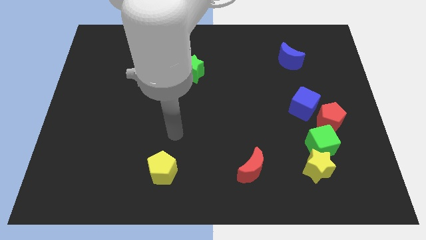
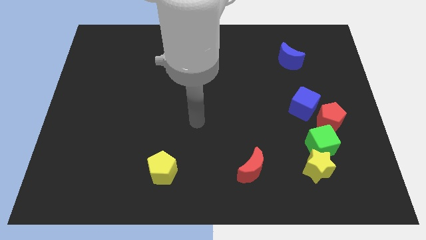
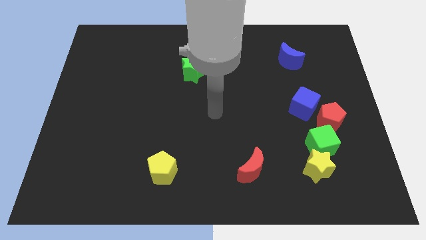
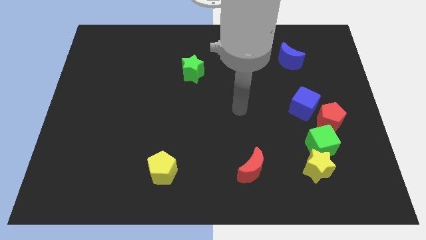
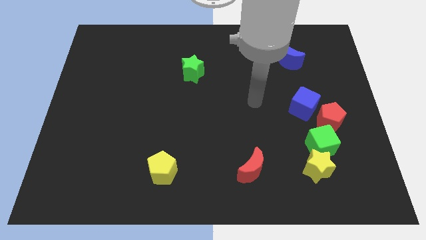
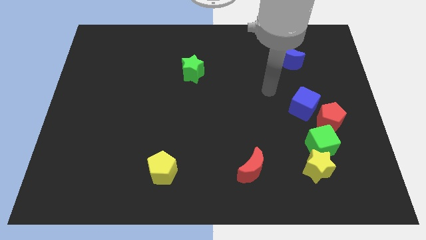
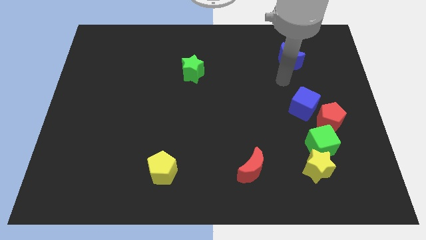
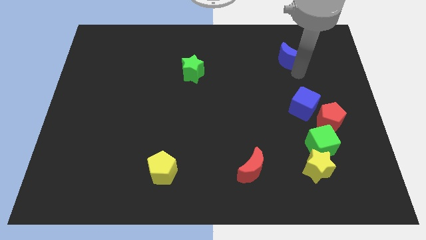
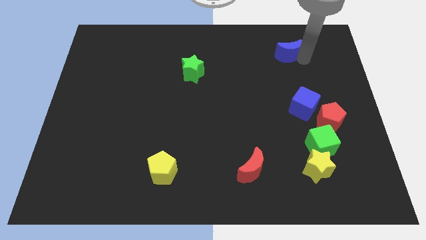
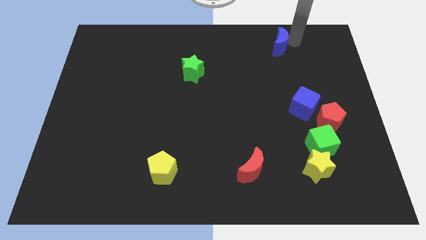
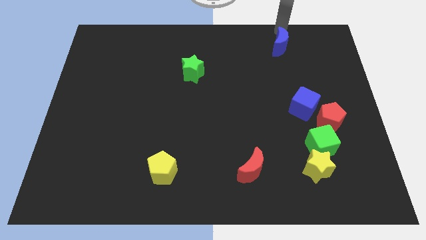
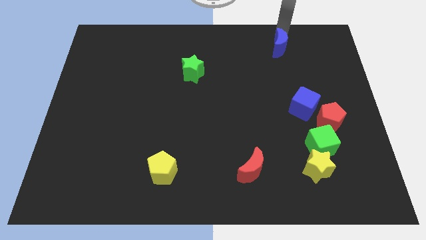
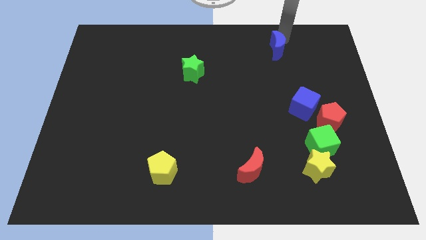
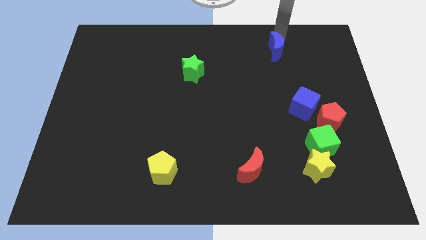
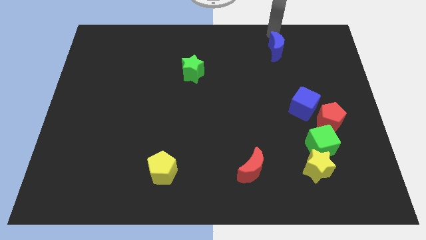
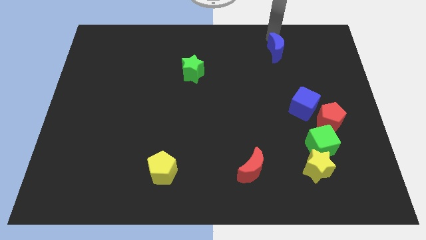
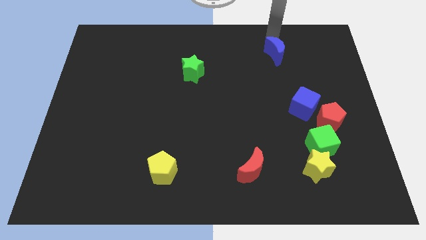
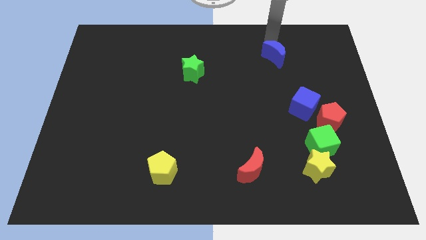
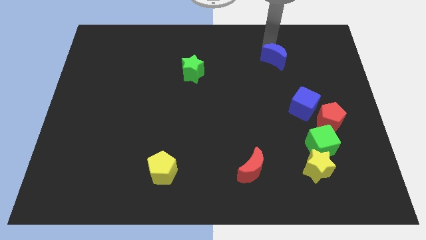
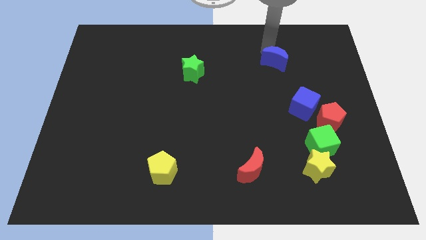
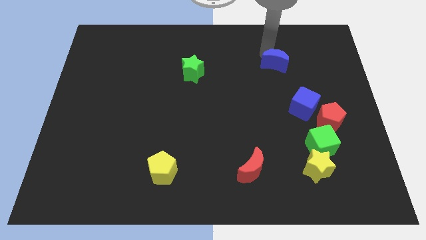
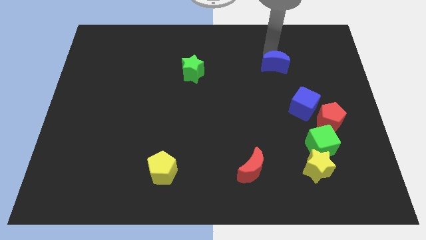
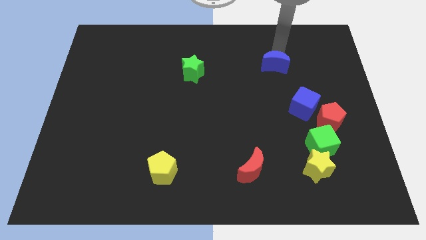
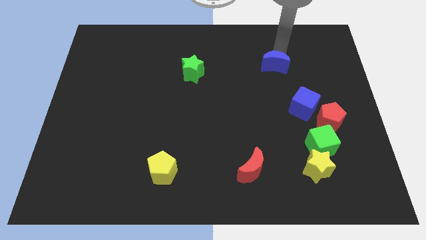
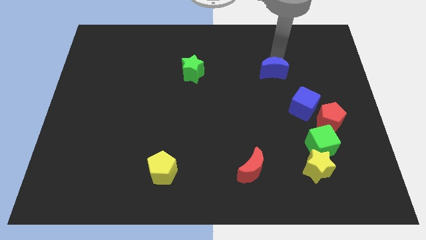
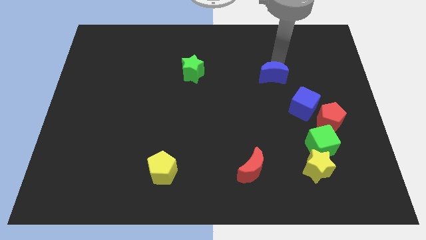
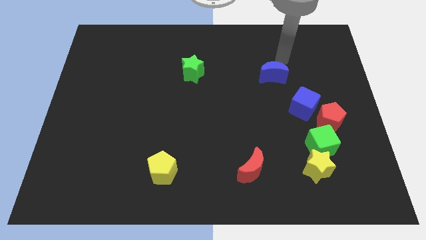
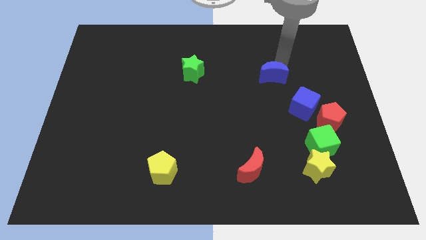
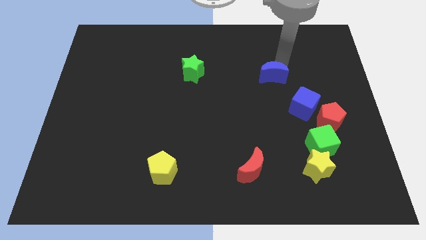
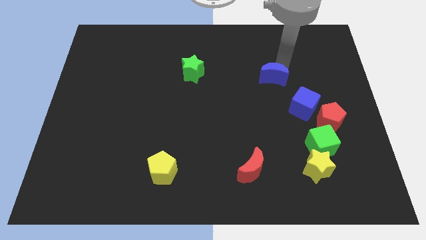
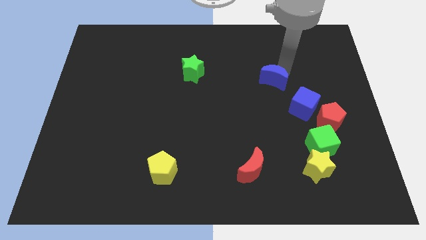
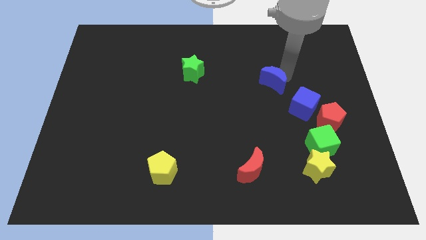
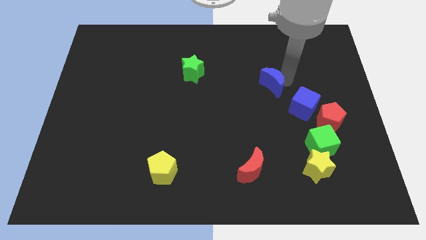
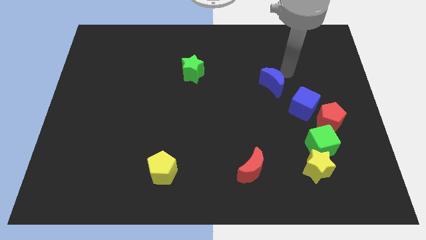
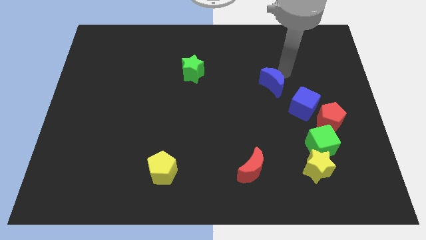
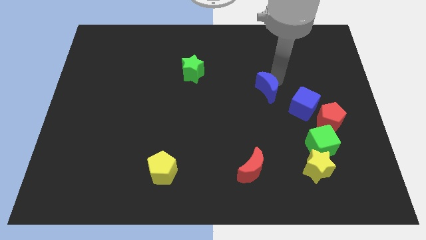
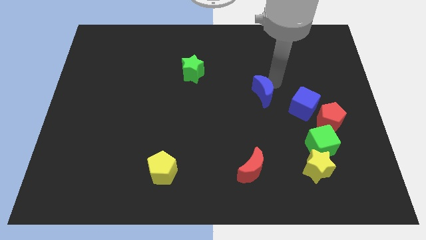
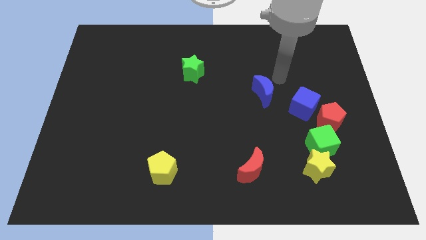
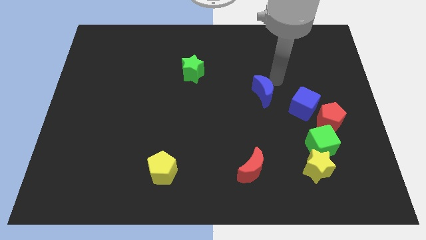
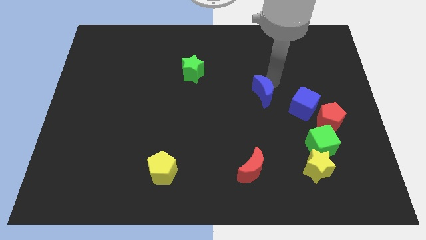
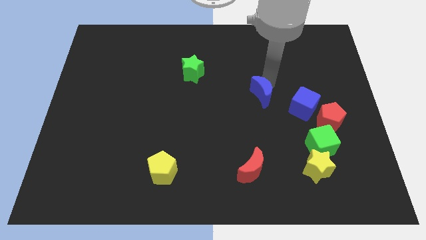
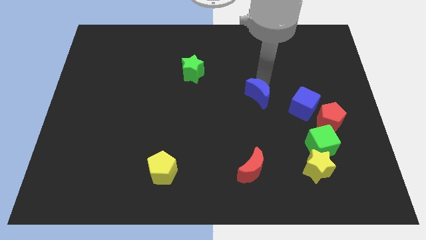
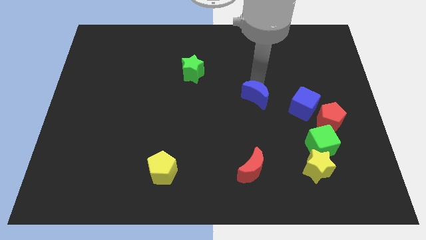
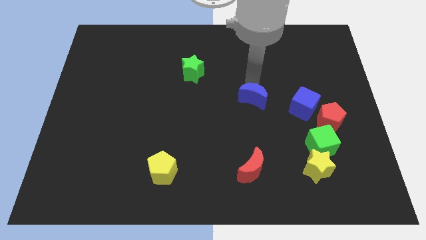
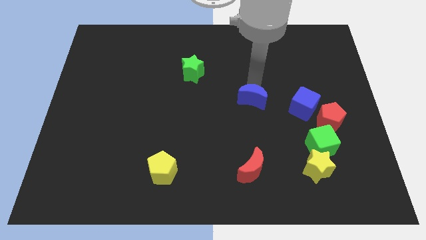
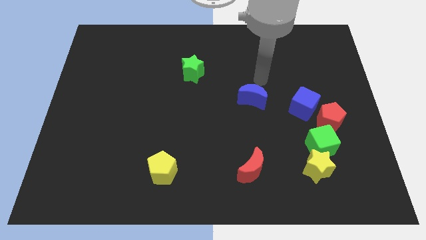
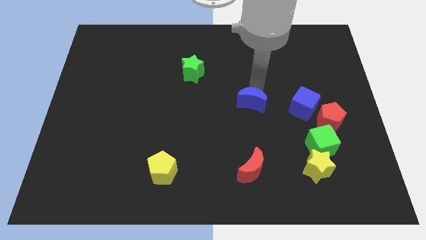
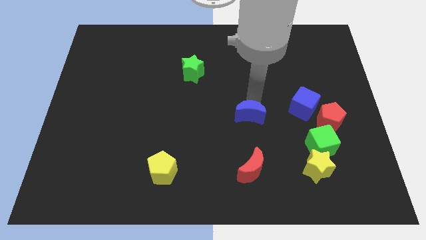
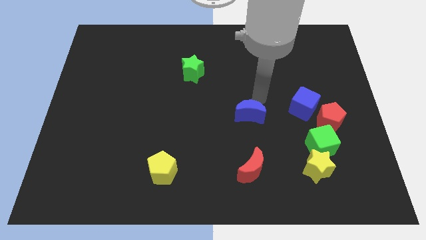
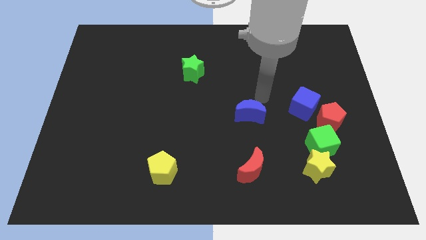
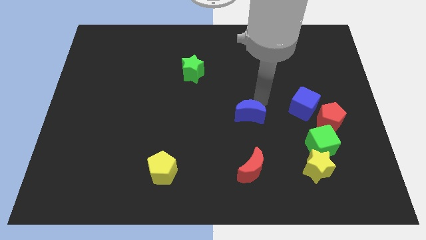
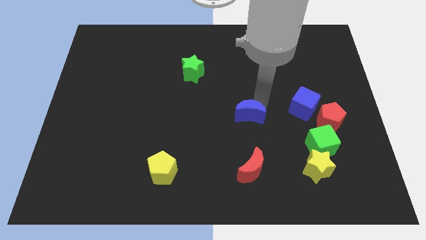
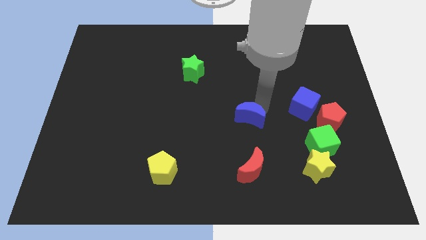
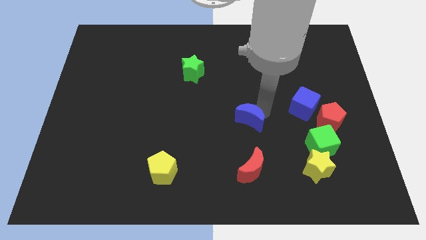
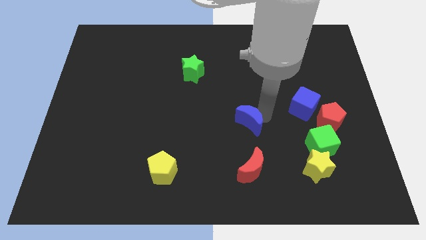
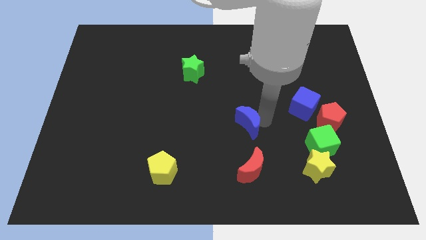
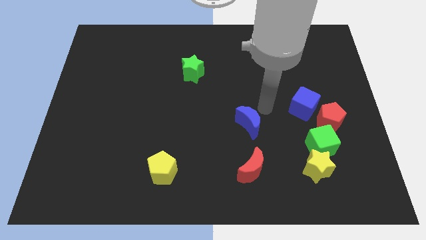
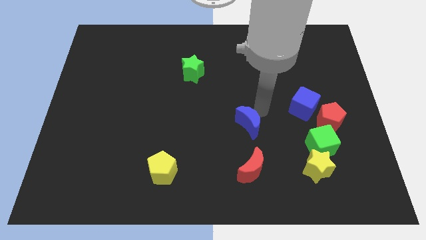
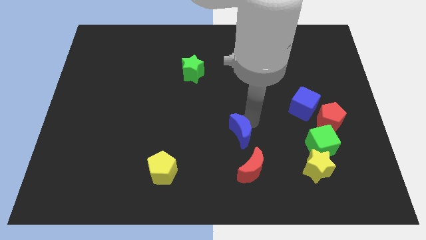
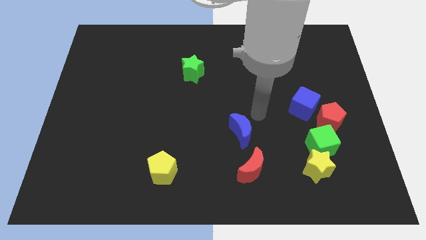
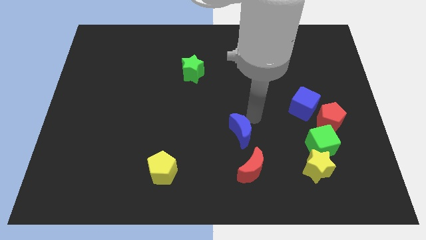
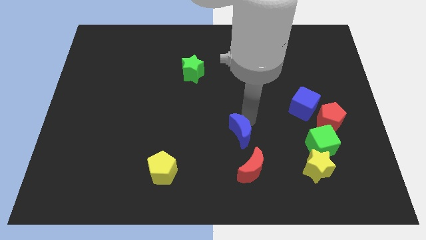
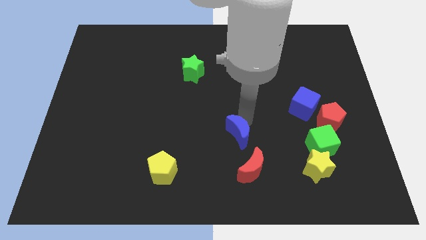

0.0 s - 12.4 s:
push the blue moon to the top left of the red moon

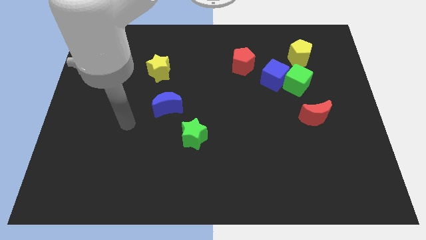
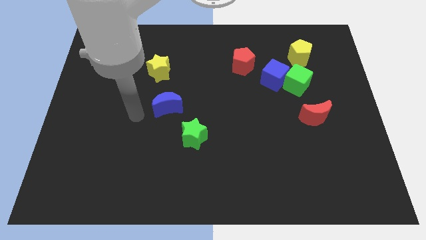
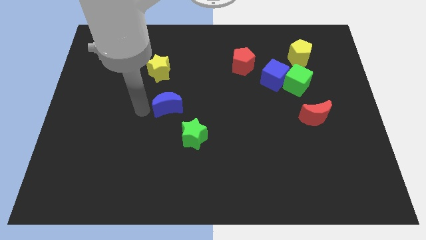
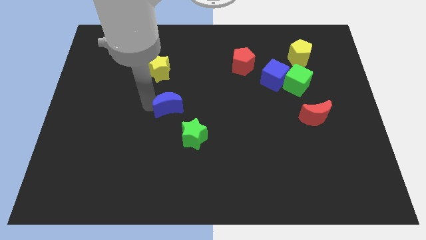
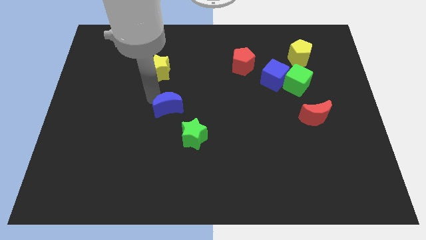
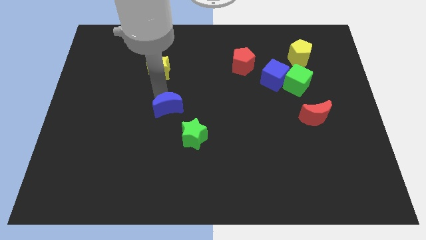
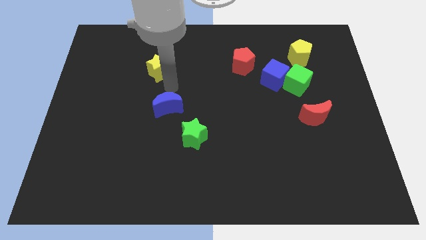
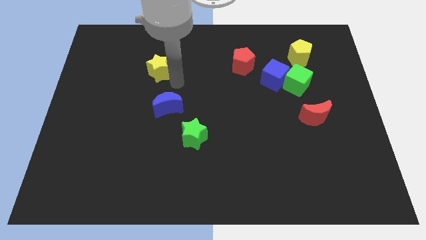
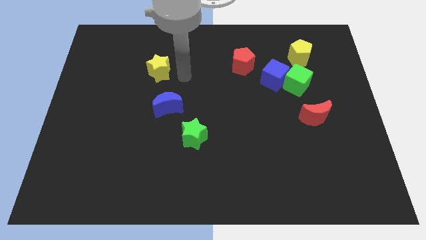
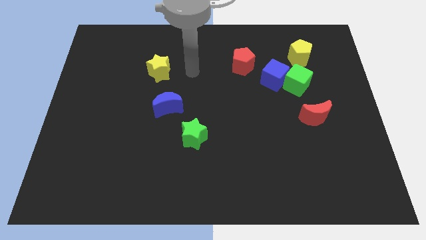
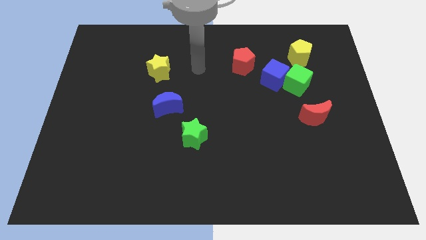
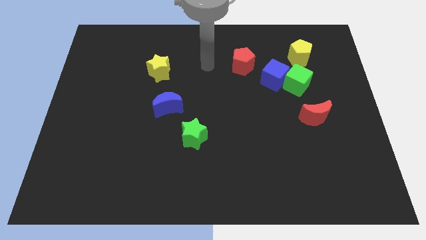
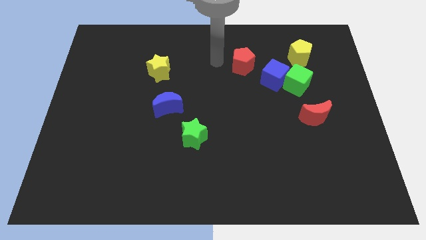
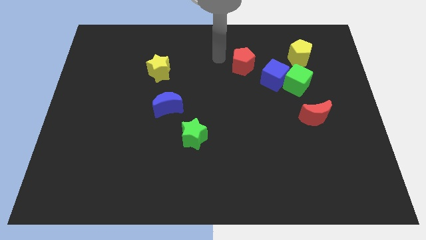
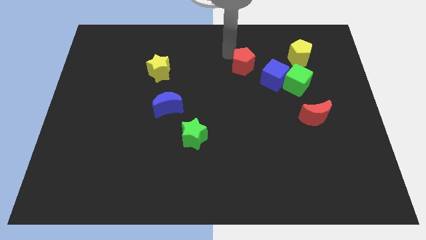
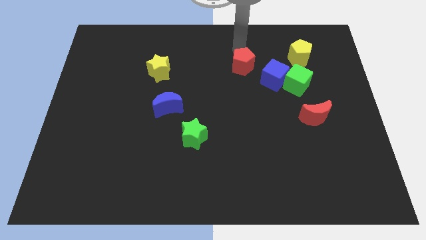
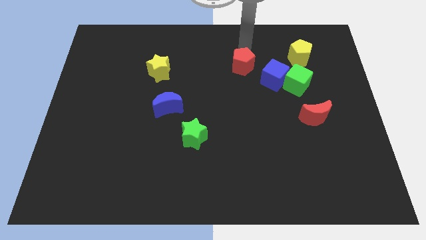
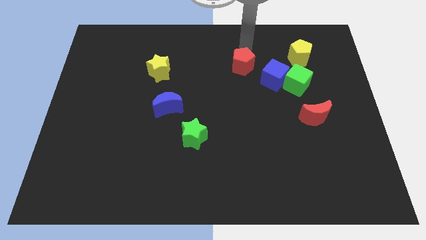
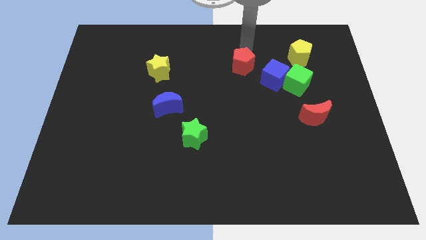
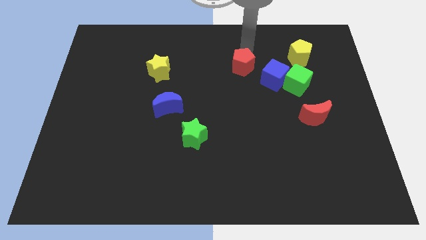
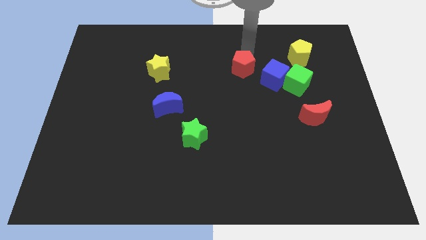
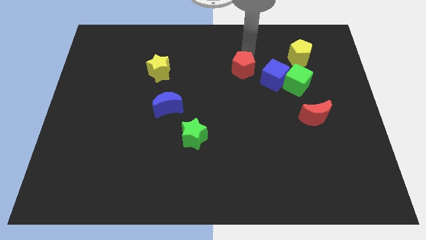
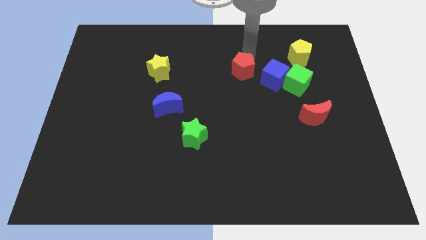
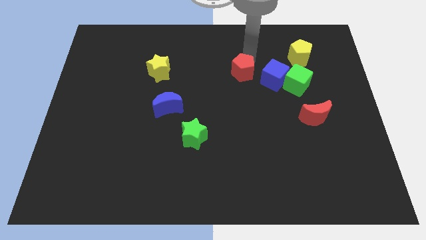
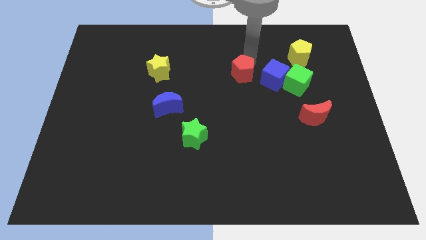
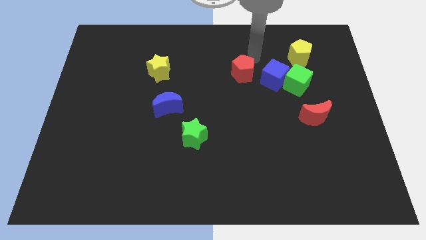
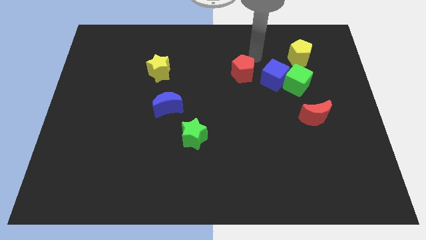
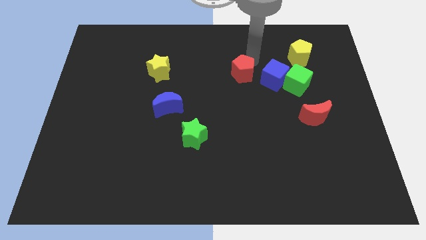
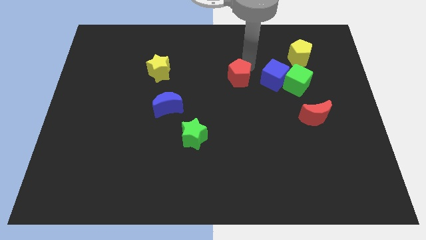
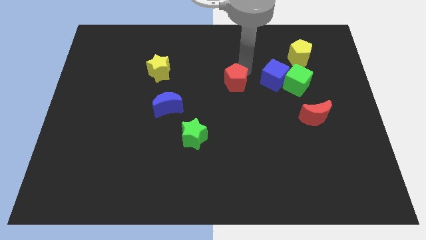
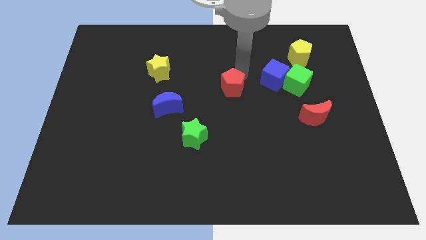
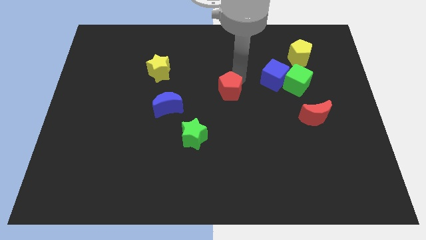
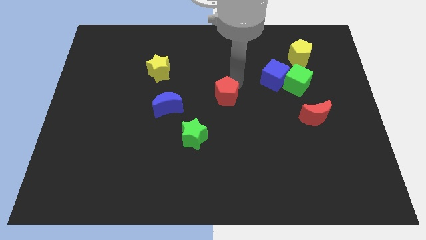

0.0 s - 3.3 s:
move the red pentagon to the right of the blue moon
